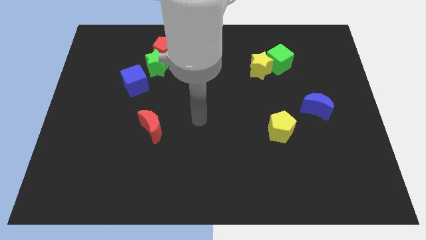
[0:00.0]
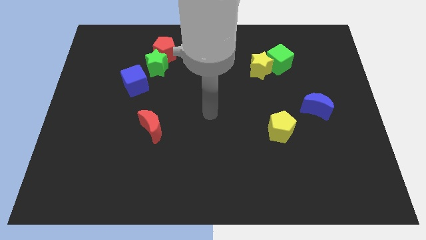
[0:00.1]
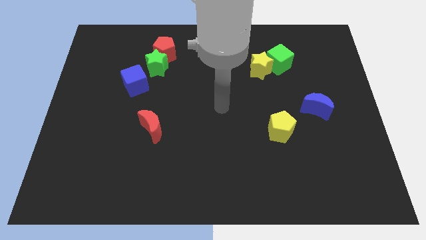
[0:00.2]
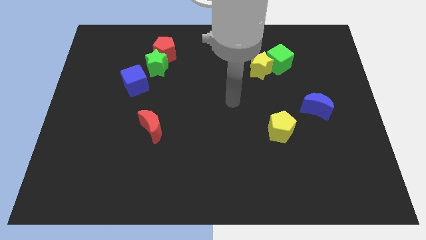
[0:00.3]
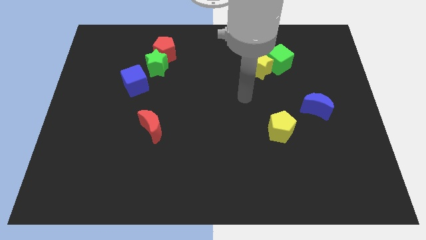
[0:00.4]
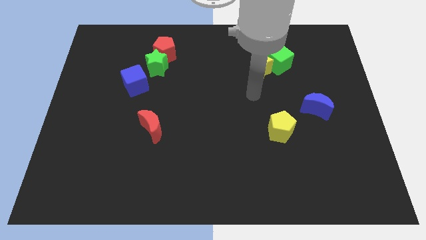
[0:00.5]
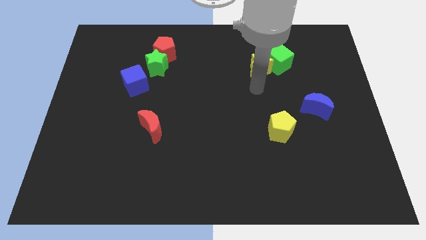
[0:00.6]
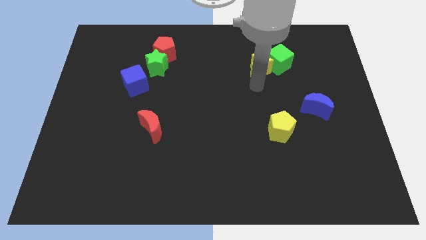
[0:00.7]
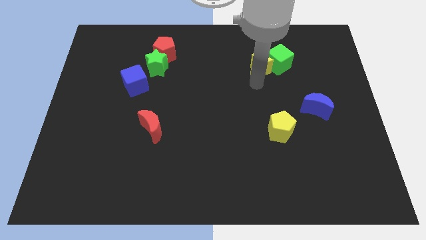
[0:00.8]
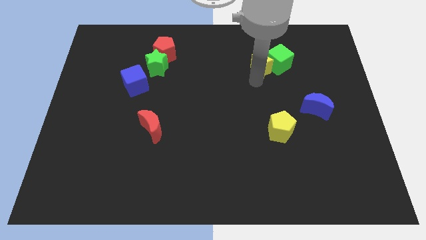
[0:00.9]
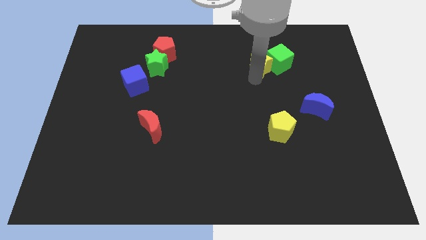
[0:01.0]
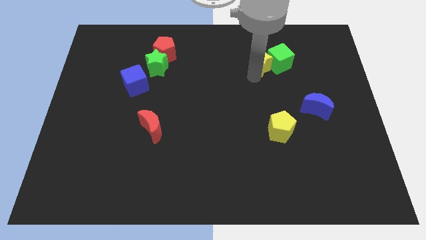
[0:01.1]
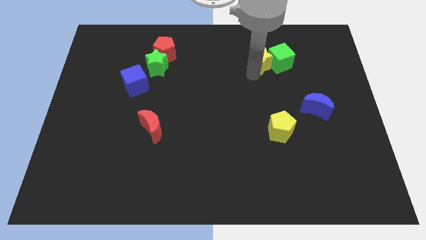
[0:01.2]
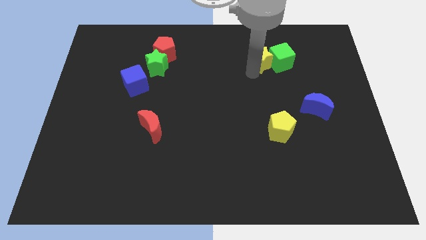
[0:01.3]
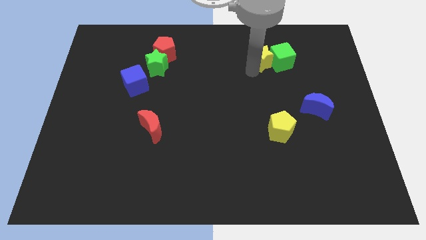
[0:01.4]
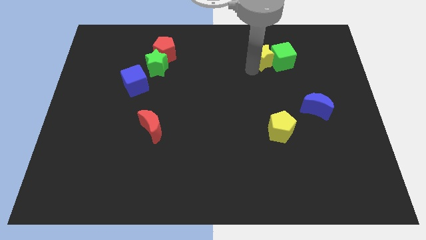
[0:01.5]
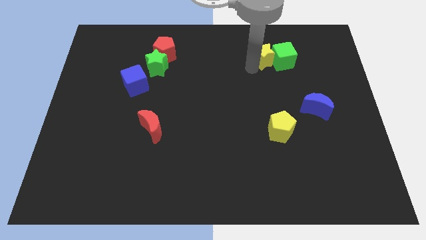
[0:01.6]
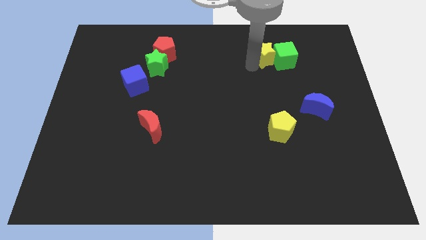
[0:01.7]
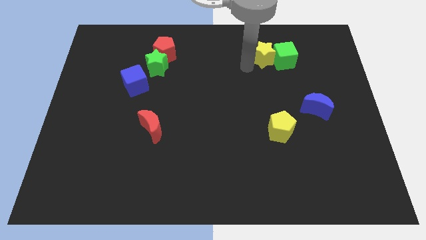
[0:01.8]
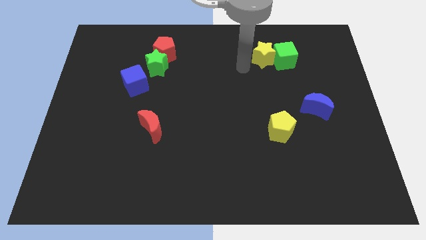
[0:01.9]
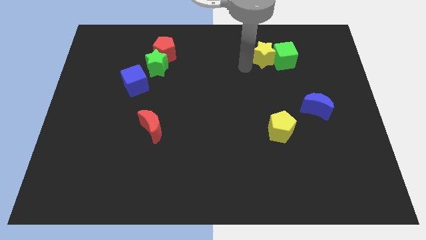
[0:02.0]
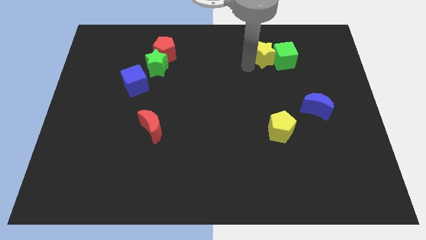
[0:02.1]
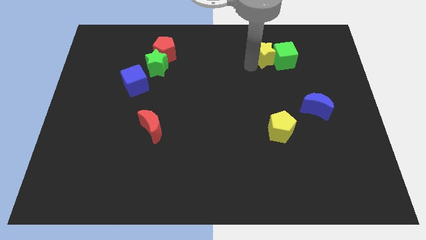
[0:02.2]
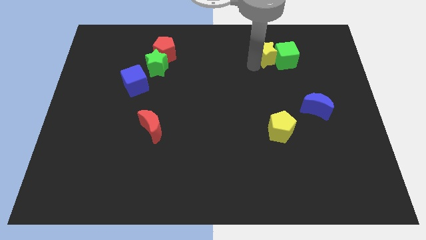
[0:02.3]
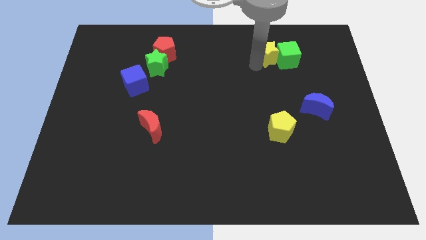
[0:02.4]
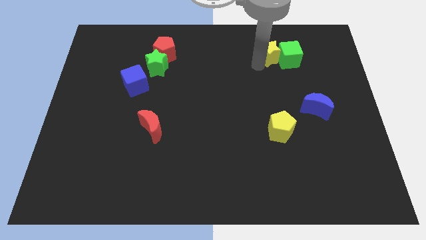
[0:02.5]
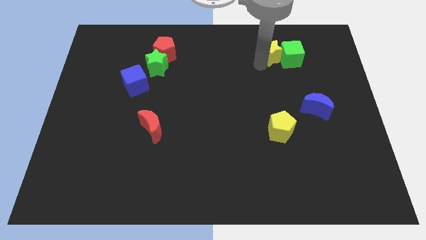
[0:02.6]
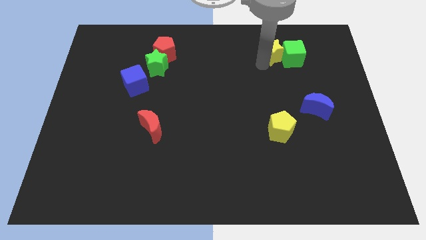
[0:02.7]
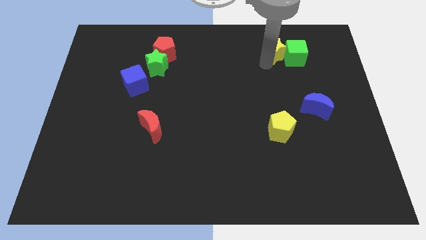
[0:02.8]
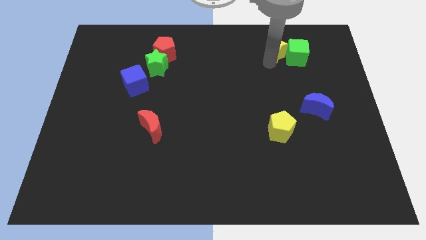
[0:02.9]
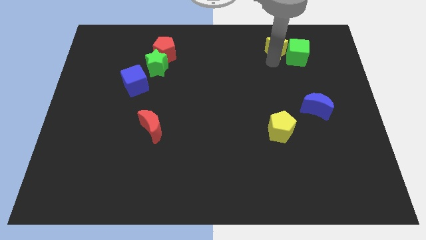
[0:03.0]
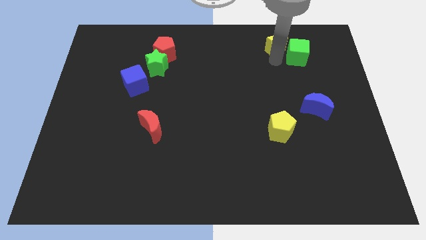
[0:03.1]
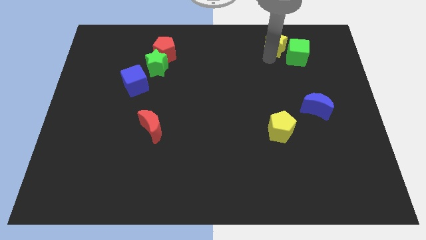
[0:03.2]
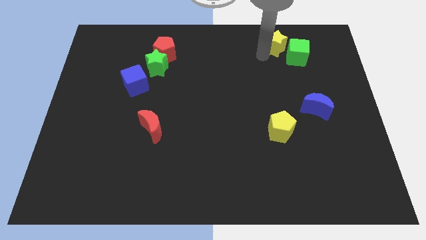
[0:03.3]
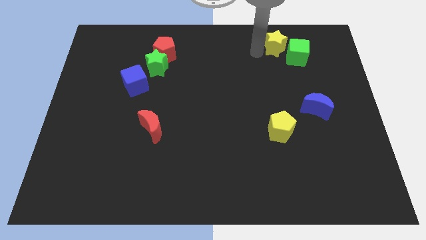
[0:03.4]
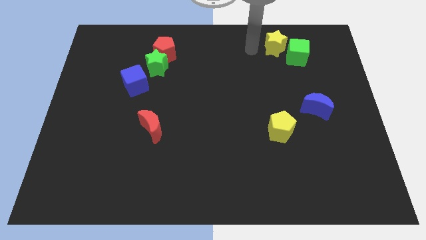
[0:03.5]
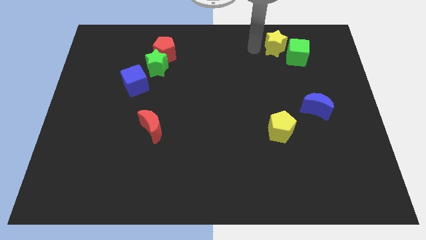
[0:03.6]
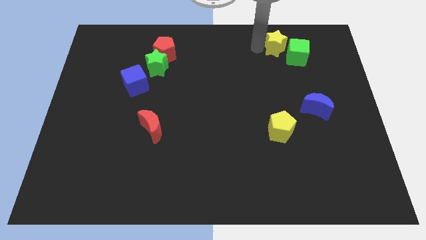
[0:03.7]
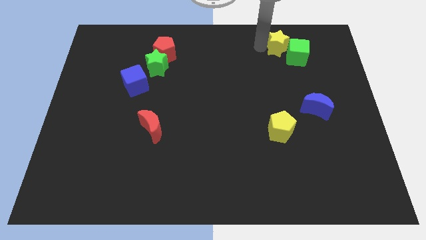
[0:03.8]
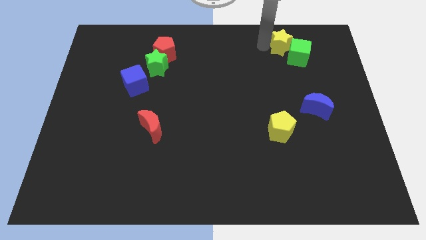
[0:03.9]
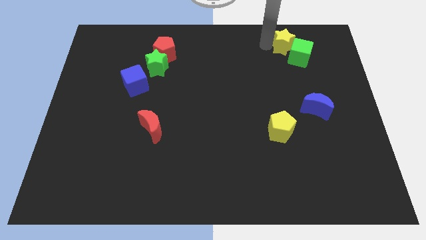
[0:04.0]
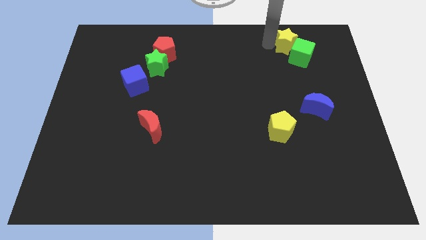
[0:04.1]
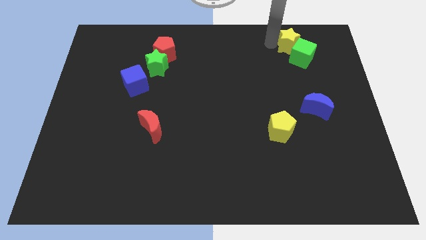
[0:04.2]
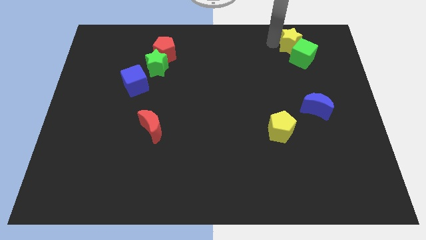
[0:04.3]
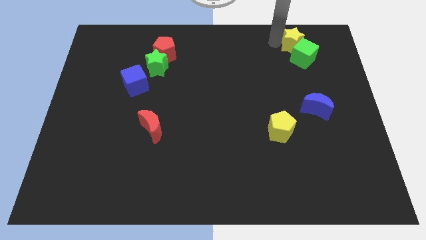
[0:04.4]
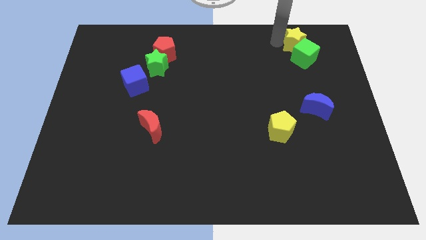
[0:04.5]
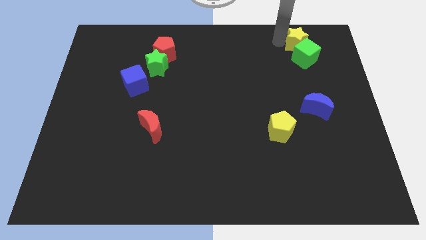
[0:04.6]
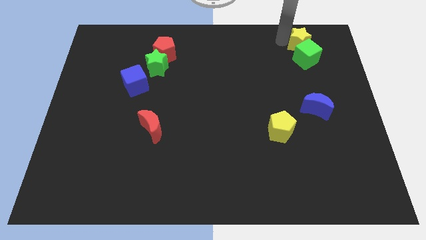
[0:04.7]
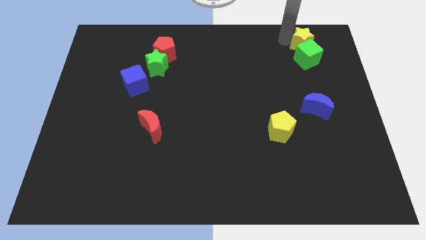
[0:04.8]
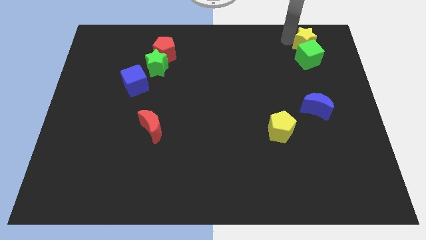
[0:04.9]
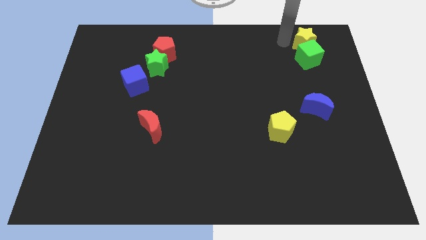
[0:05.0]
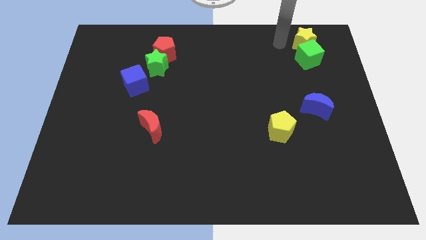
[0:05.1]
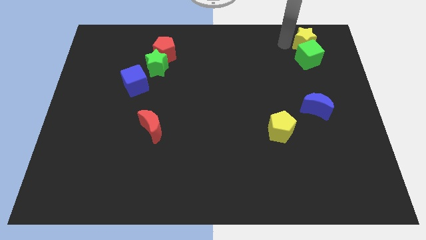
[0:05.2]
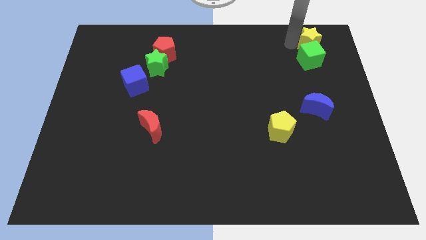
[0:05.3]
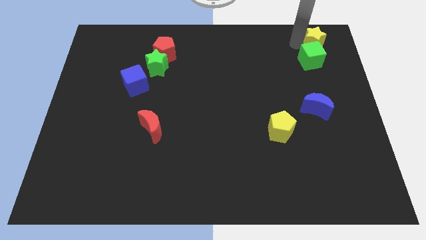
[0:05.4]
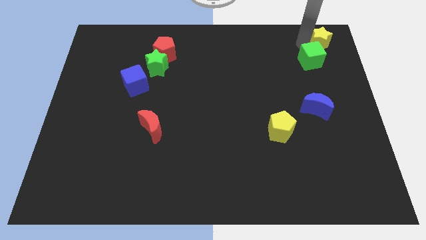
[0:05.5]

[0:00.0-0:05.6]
move the yellow star to the top right corner
